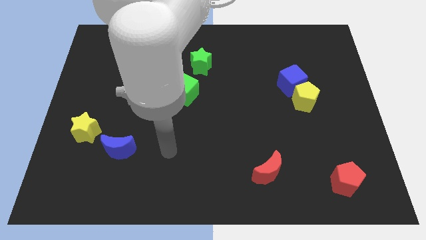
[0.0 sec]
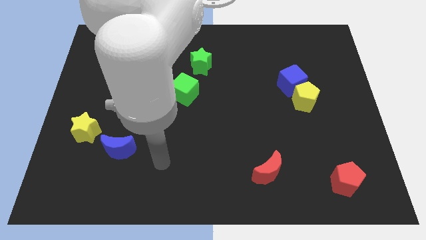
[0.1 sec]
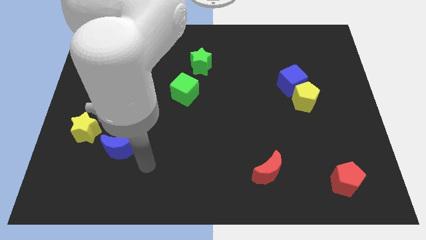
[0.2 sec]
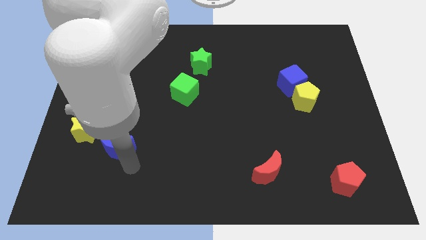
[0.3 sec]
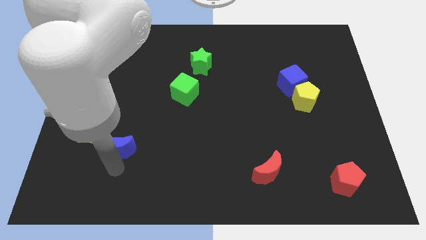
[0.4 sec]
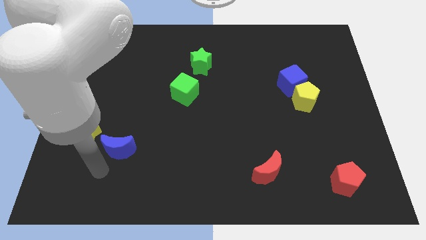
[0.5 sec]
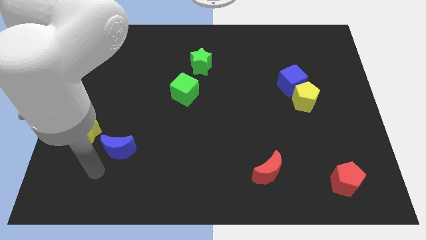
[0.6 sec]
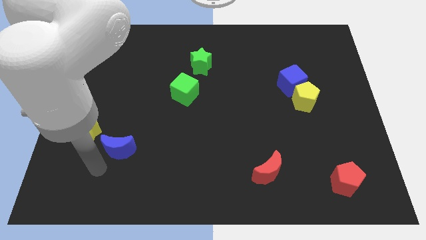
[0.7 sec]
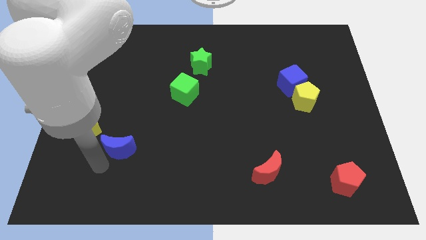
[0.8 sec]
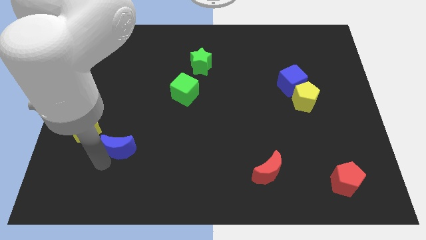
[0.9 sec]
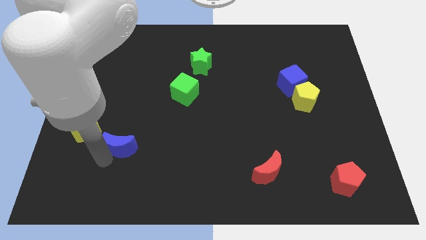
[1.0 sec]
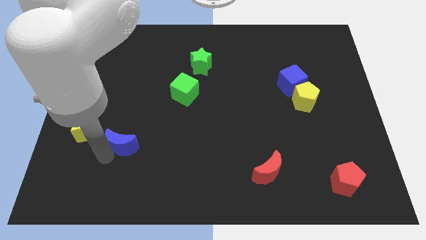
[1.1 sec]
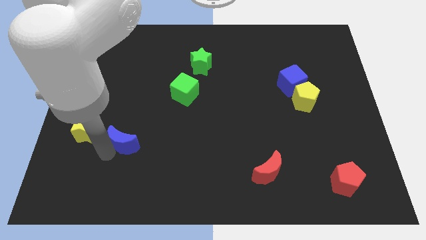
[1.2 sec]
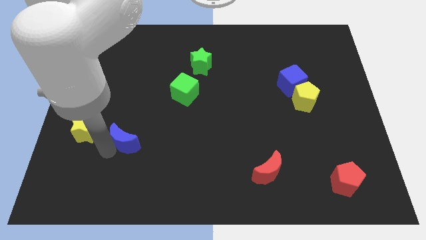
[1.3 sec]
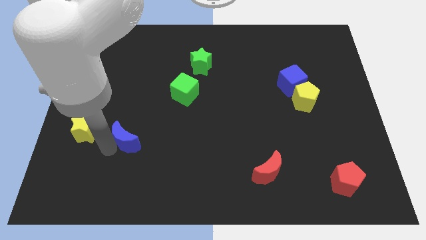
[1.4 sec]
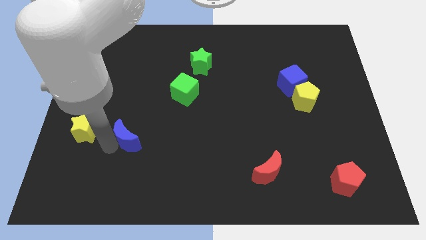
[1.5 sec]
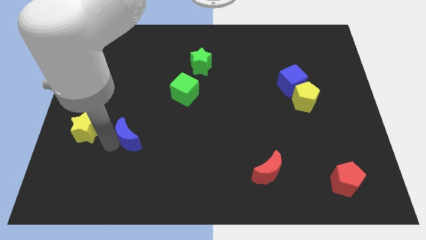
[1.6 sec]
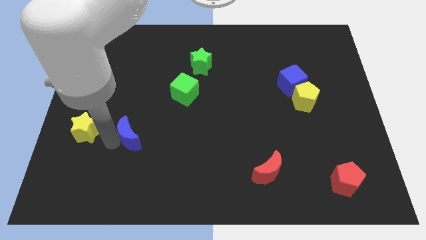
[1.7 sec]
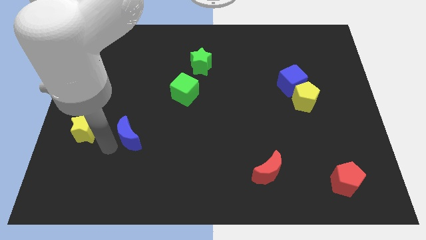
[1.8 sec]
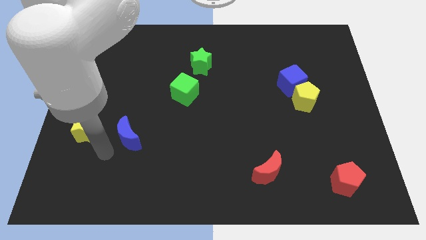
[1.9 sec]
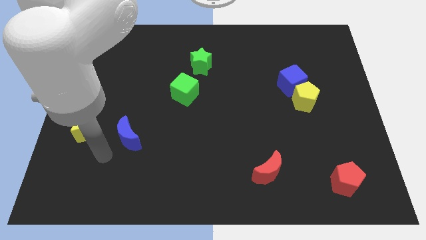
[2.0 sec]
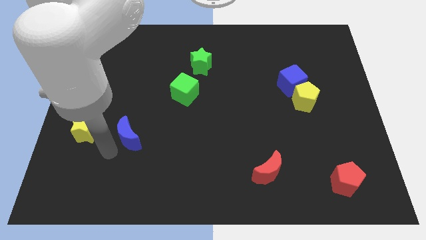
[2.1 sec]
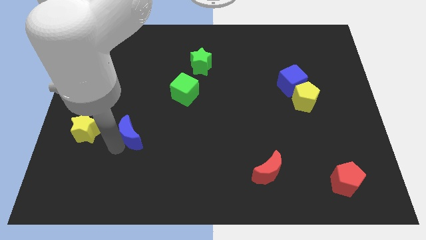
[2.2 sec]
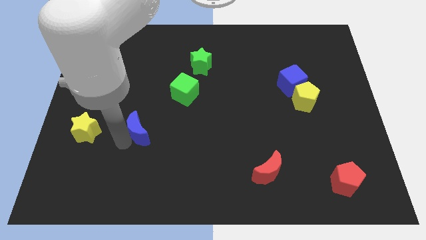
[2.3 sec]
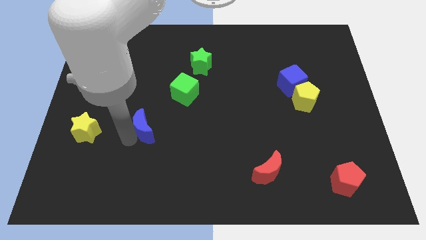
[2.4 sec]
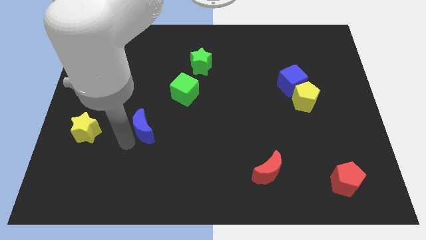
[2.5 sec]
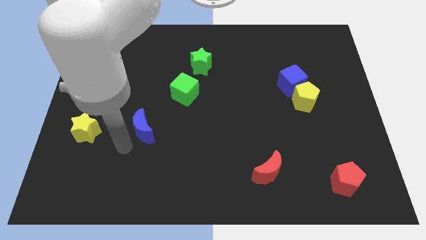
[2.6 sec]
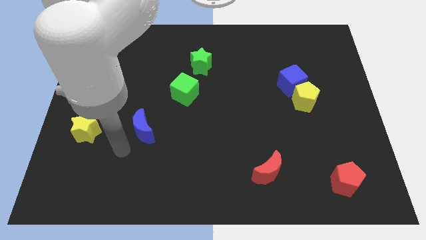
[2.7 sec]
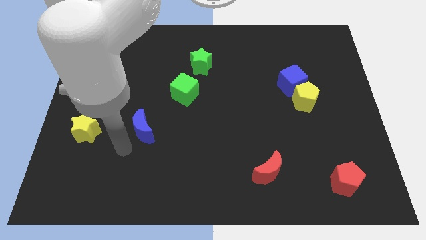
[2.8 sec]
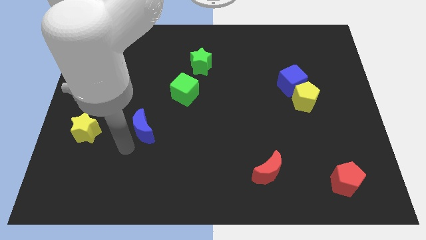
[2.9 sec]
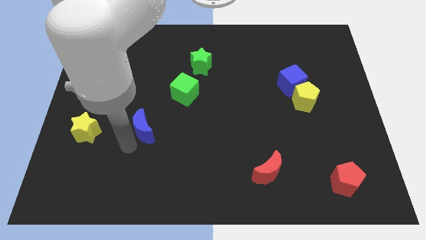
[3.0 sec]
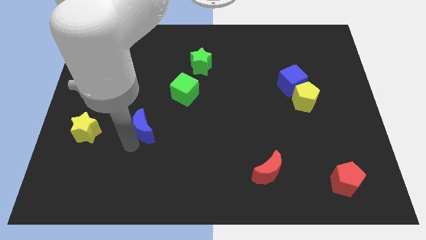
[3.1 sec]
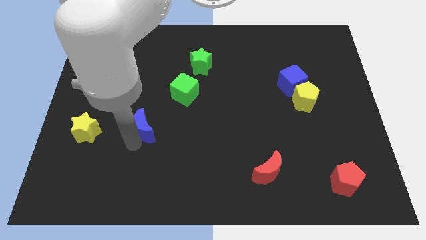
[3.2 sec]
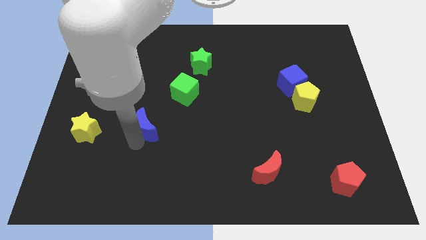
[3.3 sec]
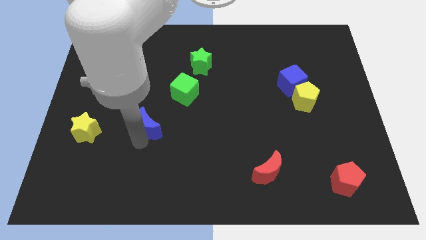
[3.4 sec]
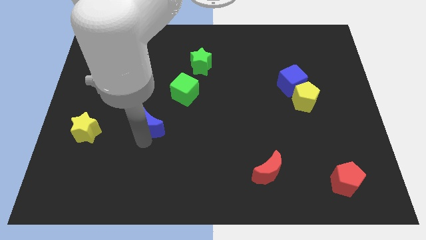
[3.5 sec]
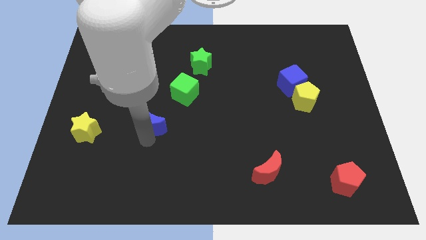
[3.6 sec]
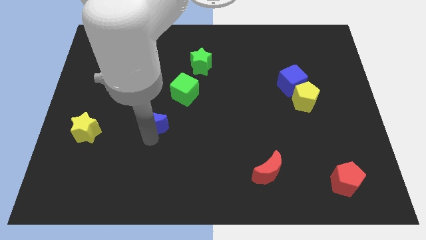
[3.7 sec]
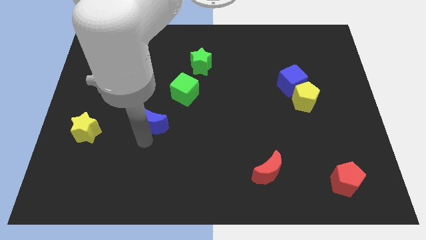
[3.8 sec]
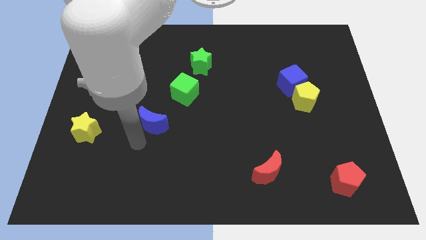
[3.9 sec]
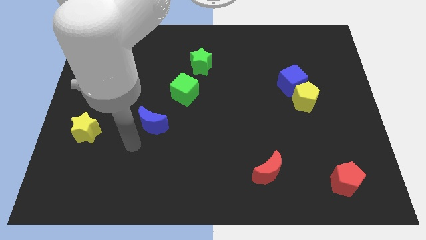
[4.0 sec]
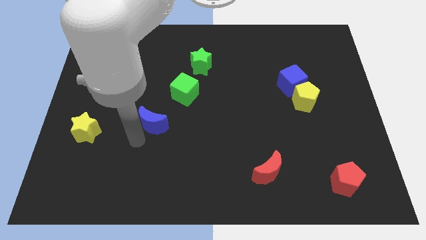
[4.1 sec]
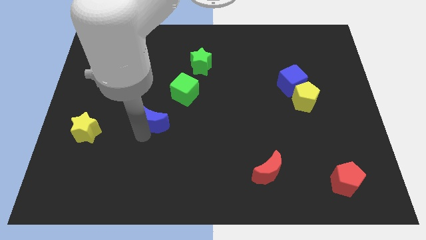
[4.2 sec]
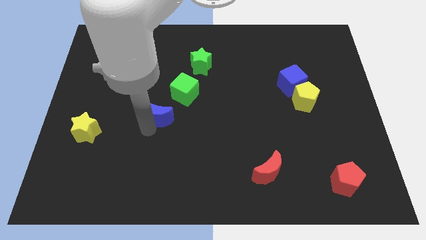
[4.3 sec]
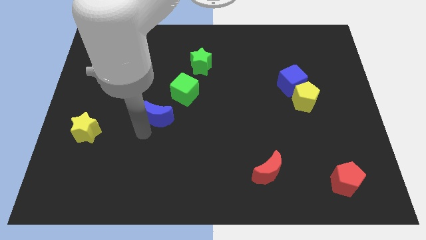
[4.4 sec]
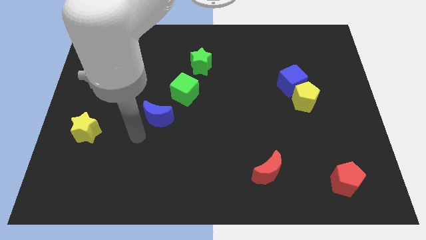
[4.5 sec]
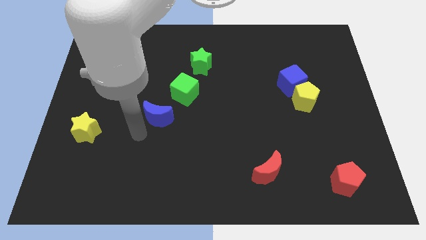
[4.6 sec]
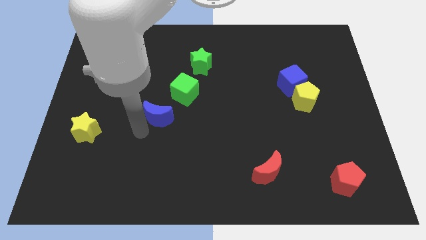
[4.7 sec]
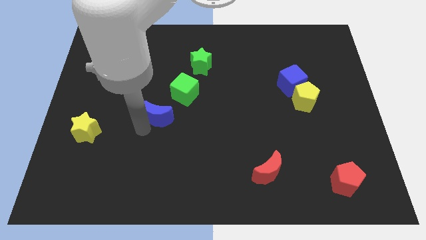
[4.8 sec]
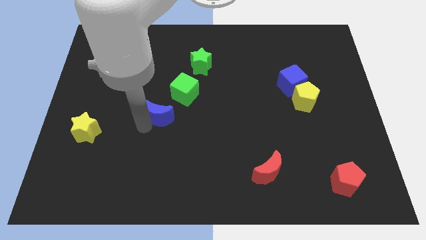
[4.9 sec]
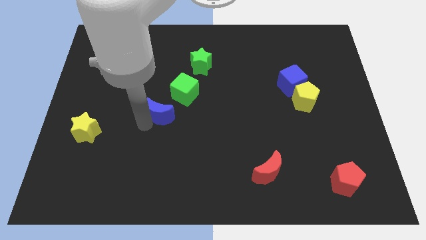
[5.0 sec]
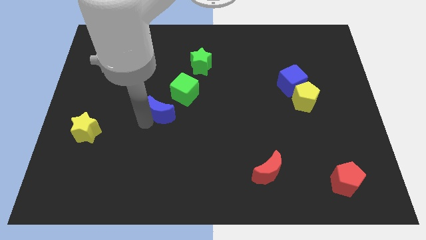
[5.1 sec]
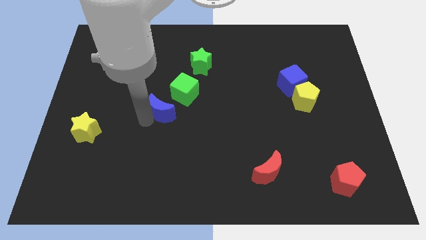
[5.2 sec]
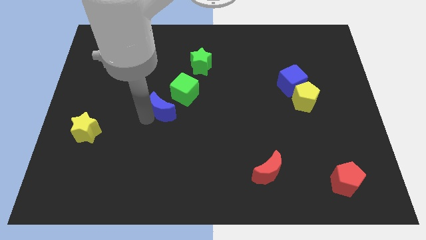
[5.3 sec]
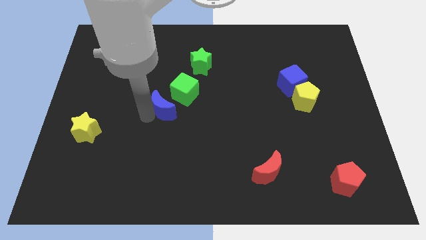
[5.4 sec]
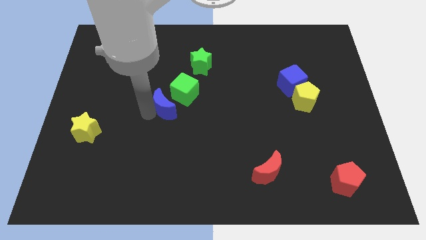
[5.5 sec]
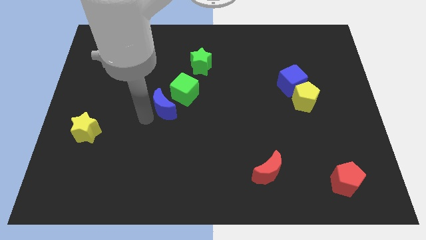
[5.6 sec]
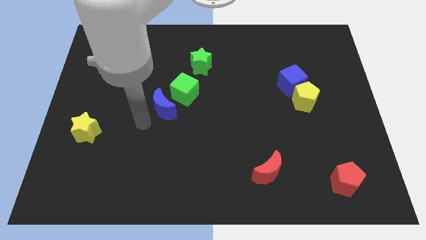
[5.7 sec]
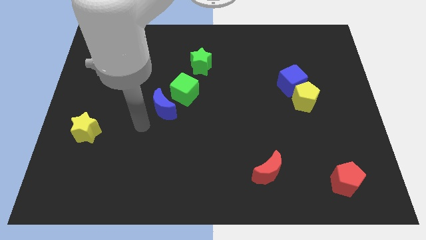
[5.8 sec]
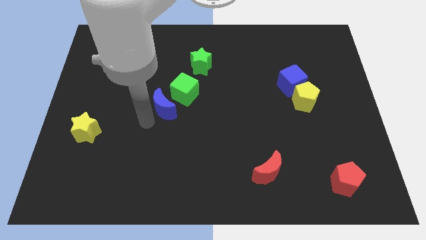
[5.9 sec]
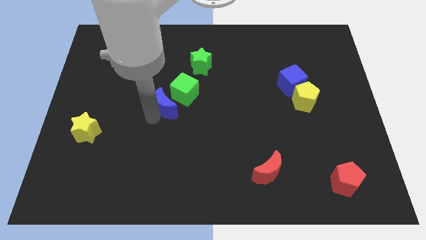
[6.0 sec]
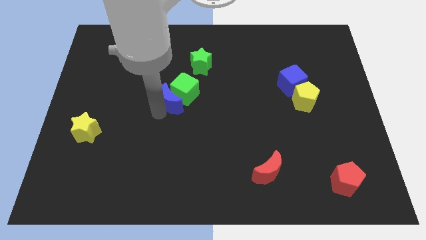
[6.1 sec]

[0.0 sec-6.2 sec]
put the blue moon close to the green cube

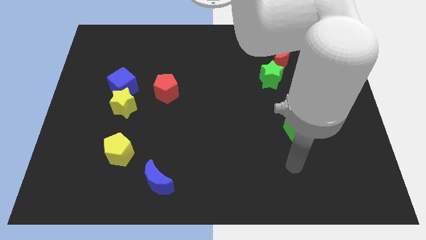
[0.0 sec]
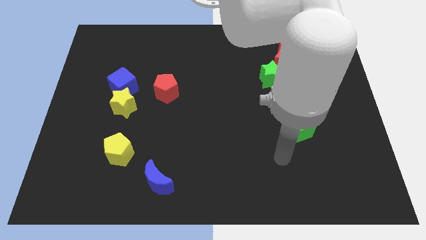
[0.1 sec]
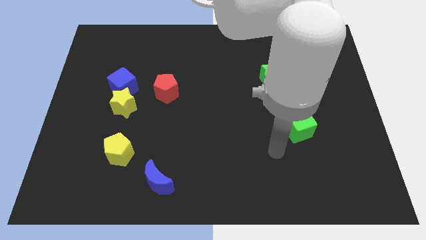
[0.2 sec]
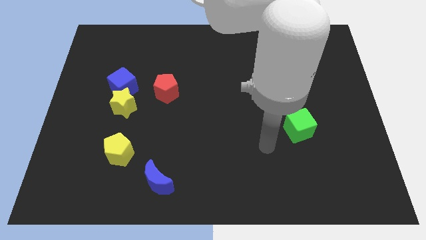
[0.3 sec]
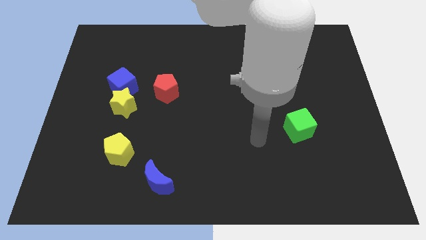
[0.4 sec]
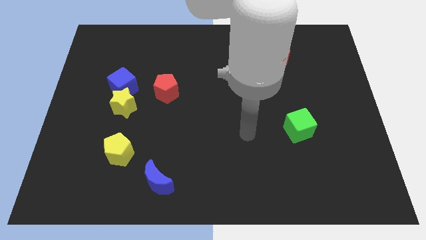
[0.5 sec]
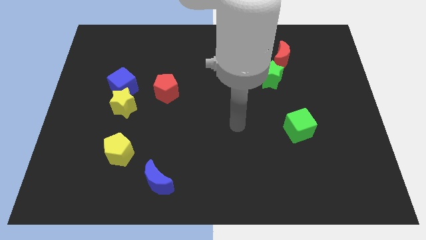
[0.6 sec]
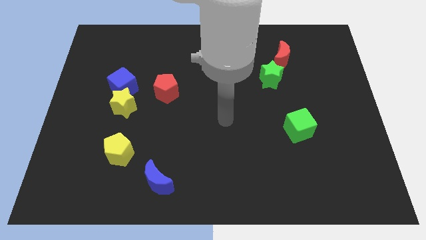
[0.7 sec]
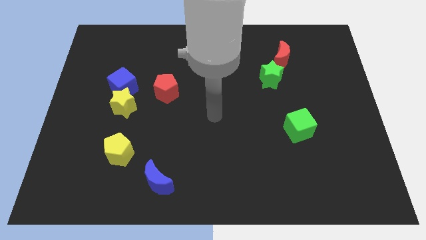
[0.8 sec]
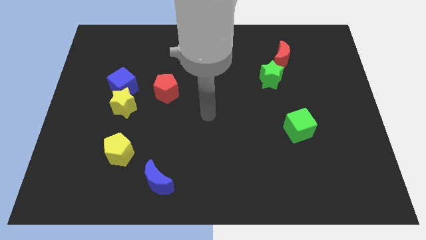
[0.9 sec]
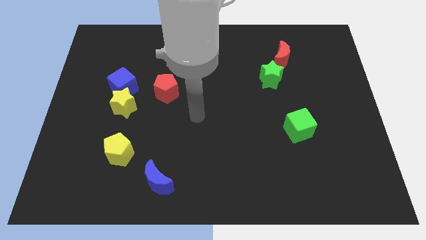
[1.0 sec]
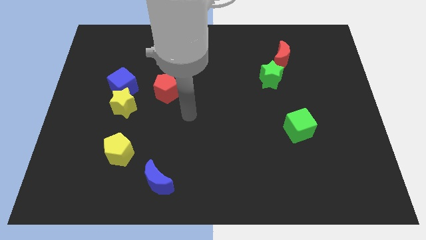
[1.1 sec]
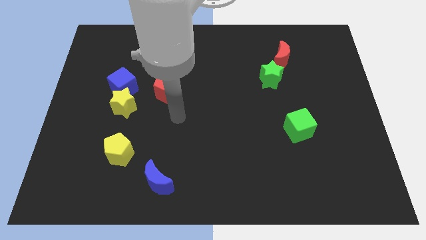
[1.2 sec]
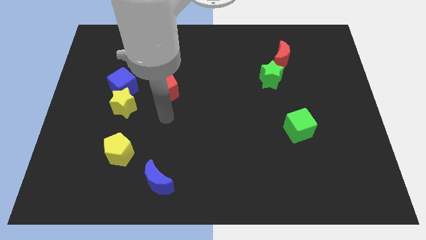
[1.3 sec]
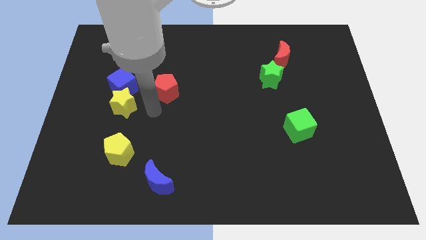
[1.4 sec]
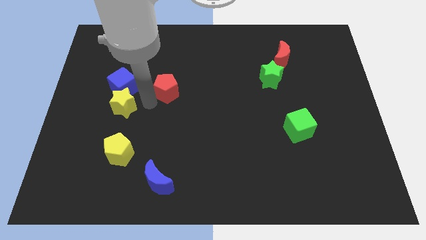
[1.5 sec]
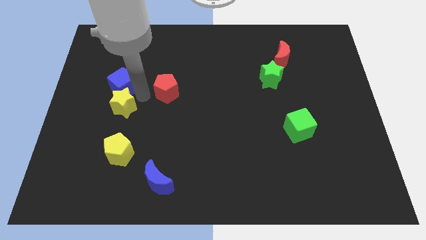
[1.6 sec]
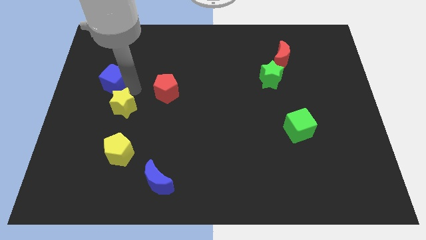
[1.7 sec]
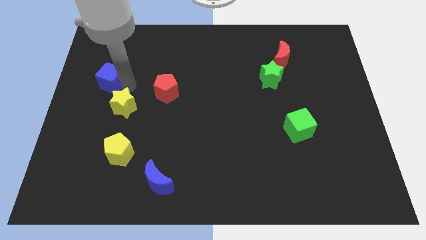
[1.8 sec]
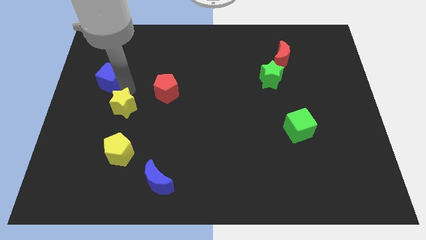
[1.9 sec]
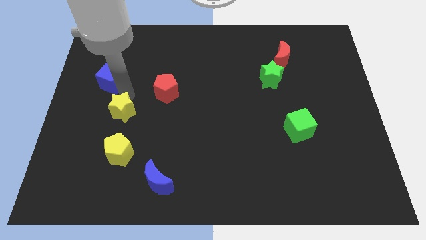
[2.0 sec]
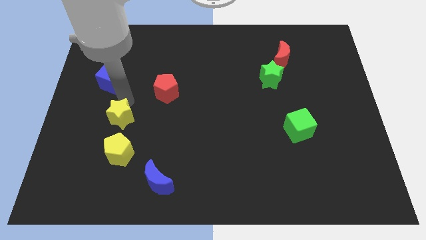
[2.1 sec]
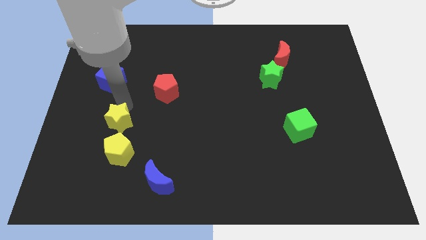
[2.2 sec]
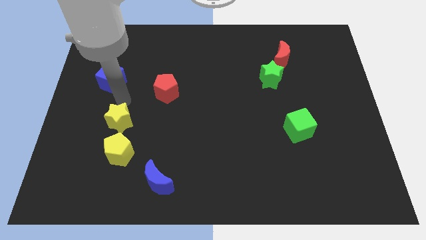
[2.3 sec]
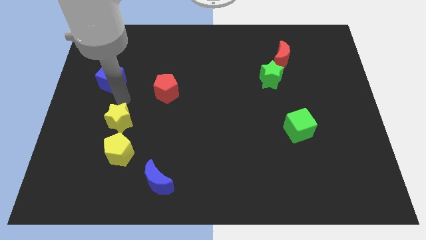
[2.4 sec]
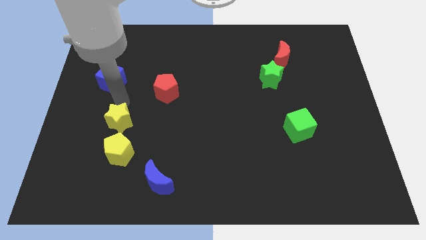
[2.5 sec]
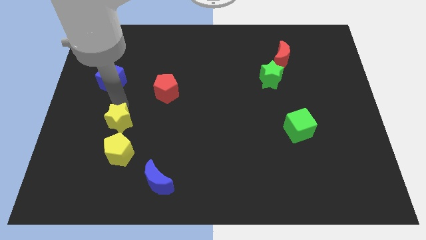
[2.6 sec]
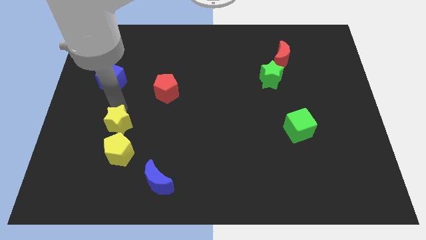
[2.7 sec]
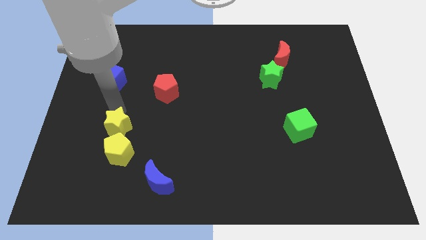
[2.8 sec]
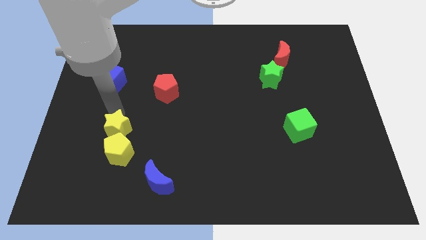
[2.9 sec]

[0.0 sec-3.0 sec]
push the yellow star close to the yellow pentagon
